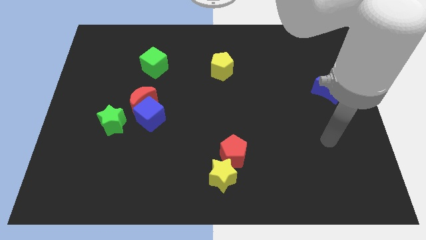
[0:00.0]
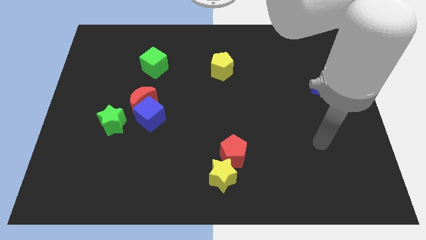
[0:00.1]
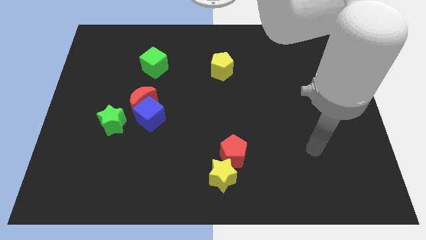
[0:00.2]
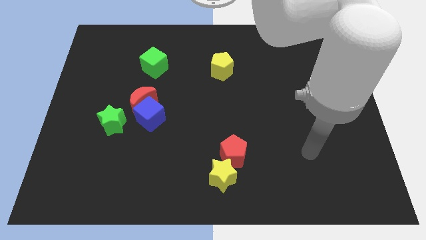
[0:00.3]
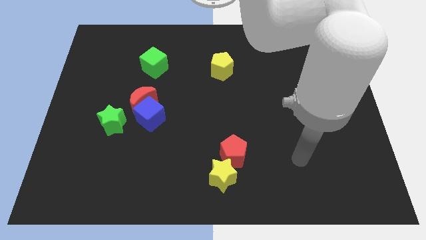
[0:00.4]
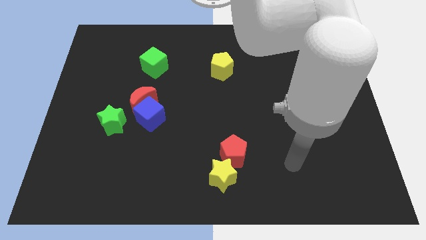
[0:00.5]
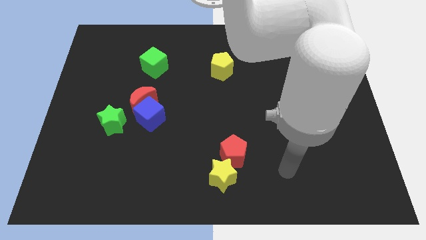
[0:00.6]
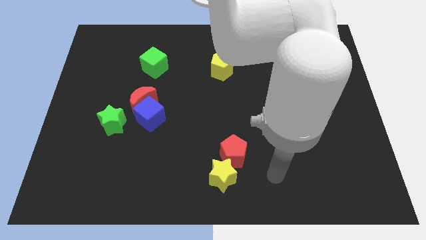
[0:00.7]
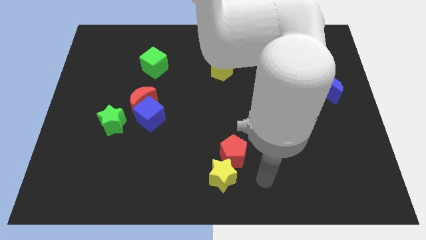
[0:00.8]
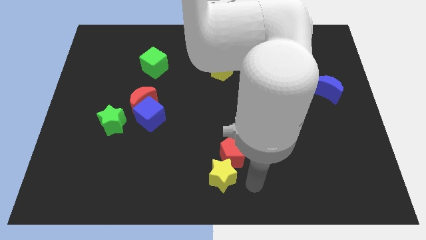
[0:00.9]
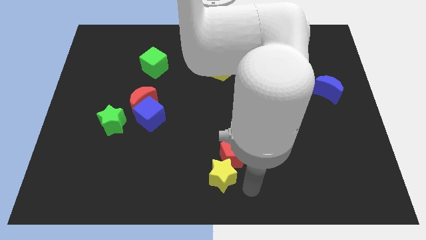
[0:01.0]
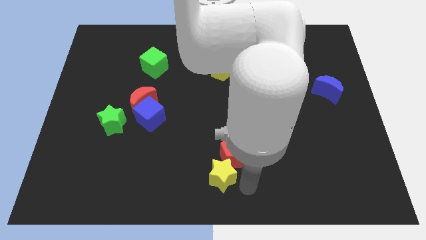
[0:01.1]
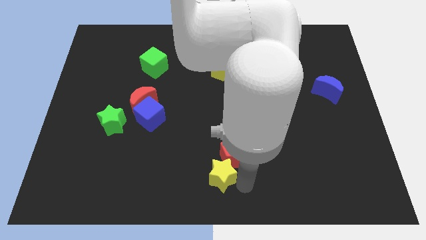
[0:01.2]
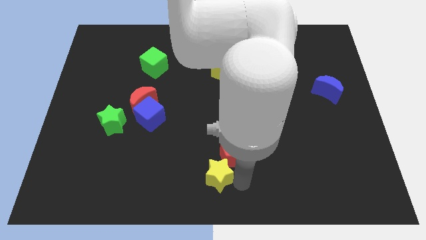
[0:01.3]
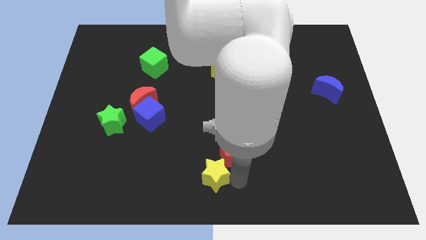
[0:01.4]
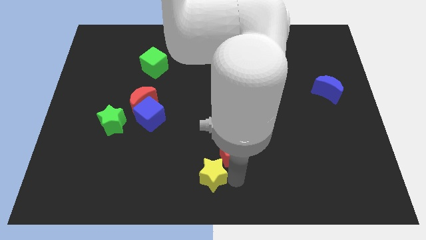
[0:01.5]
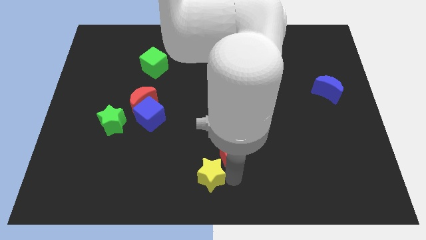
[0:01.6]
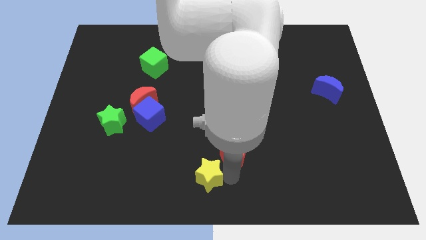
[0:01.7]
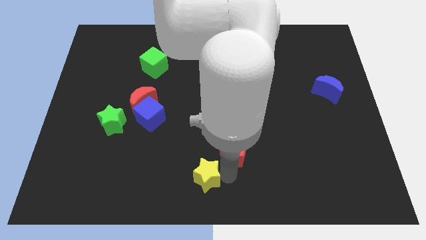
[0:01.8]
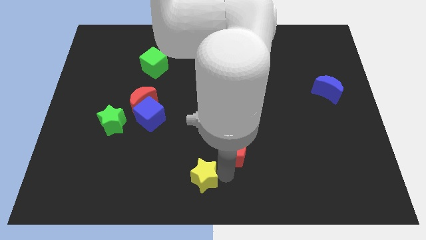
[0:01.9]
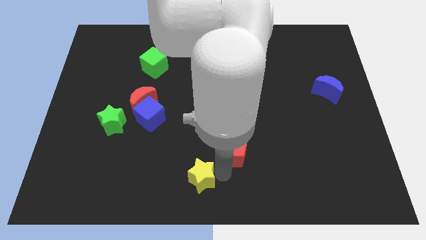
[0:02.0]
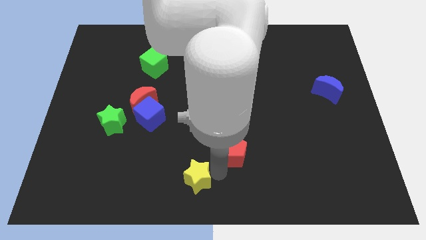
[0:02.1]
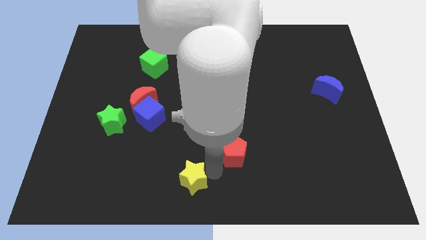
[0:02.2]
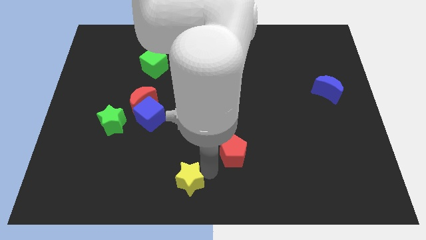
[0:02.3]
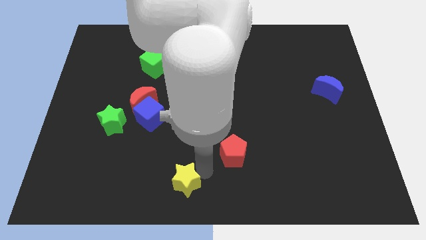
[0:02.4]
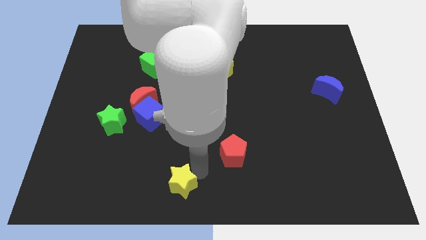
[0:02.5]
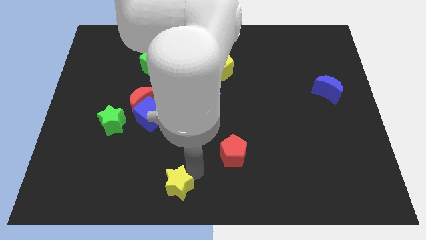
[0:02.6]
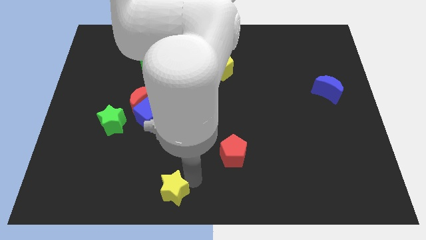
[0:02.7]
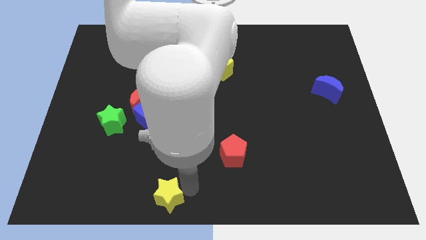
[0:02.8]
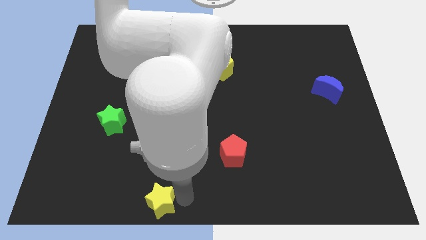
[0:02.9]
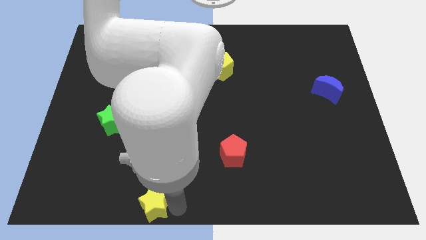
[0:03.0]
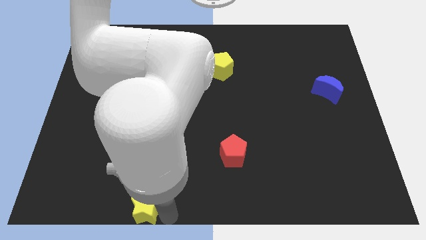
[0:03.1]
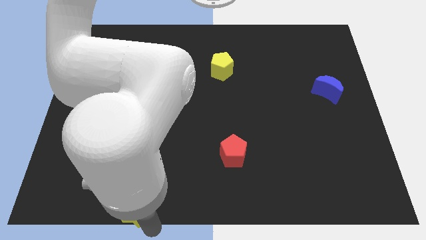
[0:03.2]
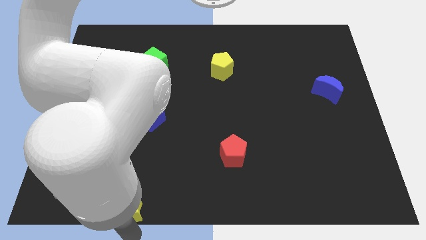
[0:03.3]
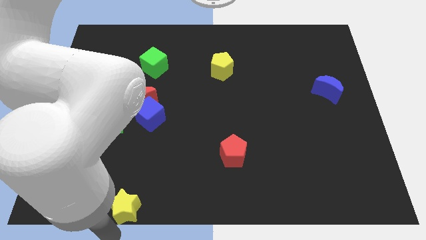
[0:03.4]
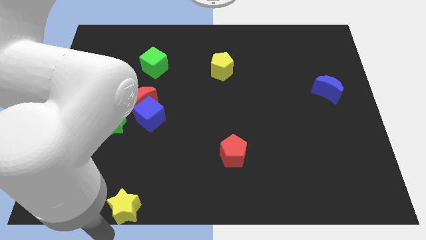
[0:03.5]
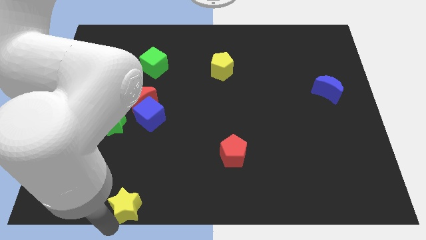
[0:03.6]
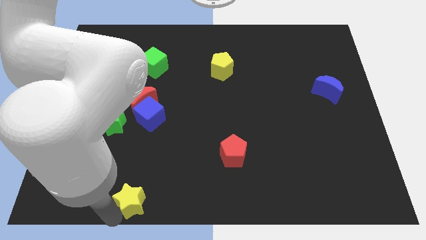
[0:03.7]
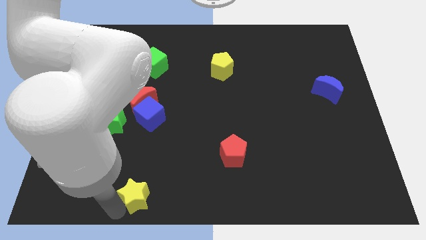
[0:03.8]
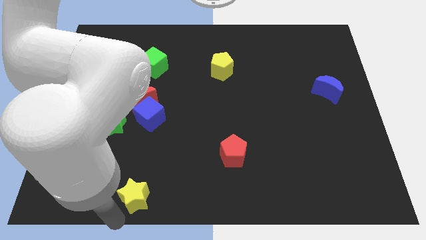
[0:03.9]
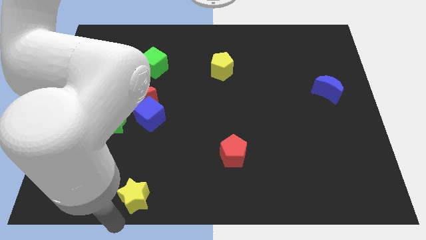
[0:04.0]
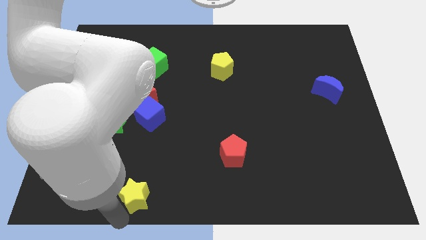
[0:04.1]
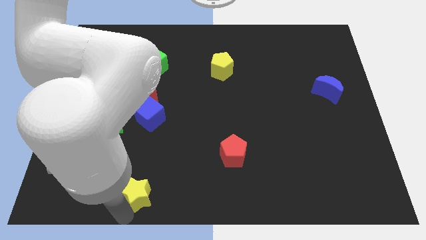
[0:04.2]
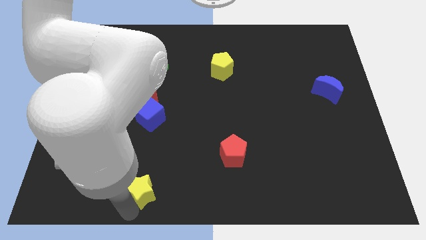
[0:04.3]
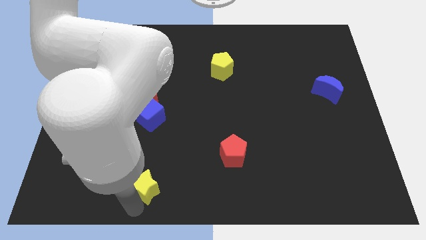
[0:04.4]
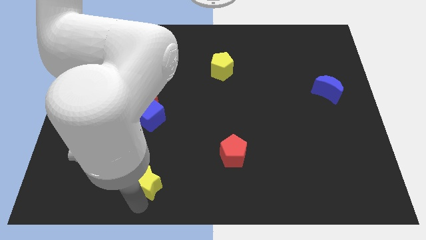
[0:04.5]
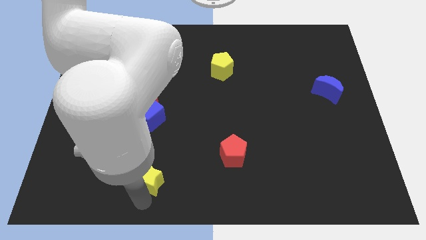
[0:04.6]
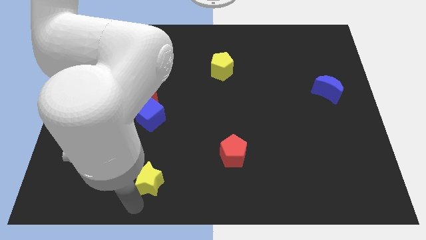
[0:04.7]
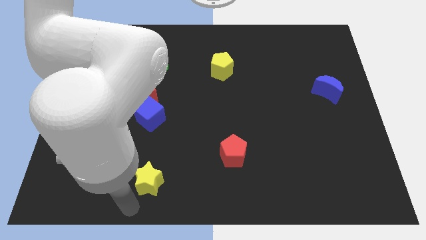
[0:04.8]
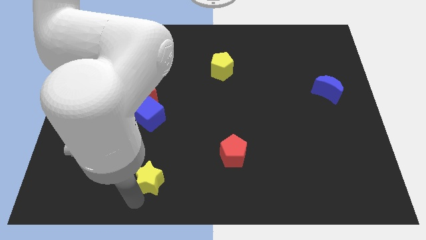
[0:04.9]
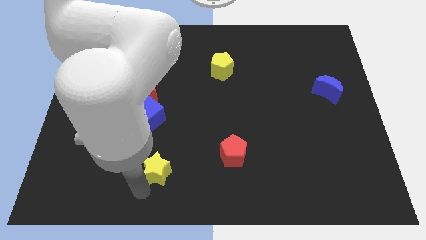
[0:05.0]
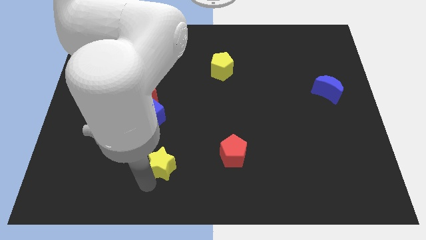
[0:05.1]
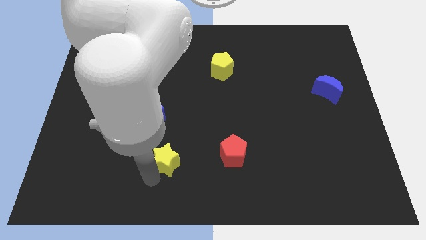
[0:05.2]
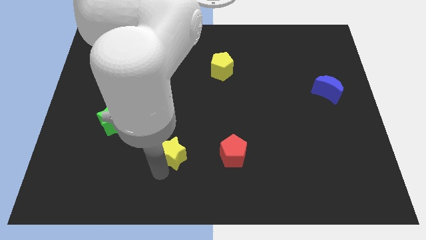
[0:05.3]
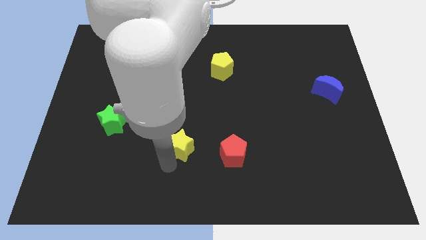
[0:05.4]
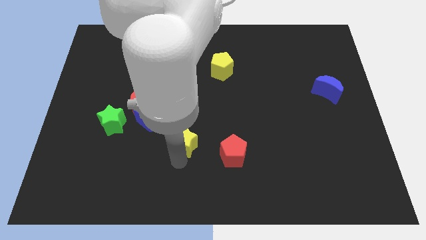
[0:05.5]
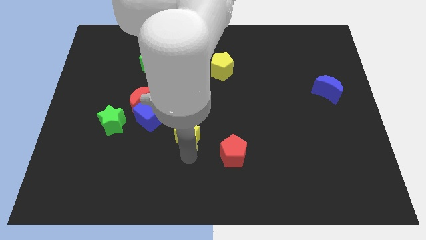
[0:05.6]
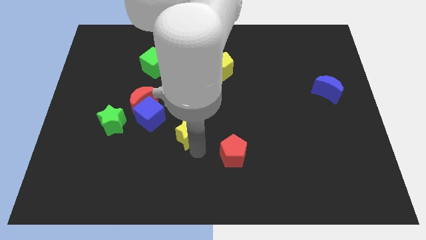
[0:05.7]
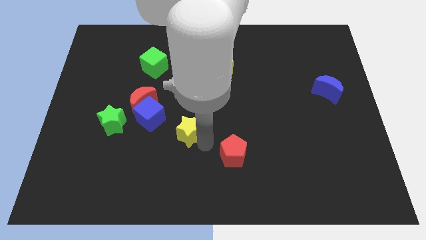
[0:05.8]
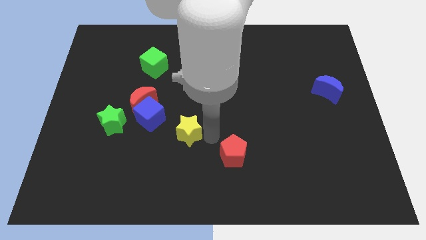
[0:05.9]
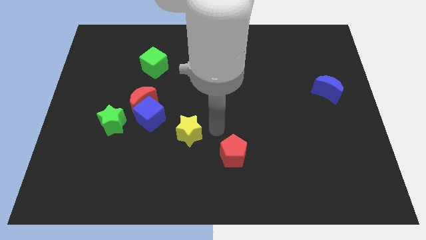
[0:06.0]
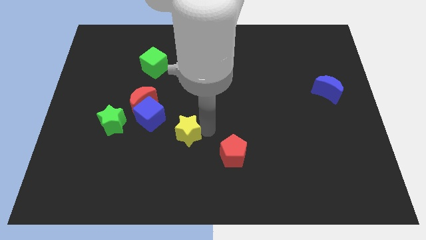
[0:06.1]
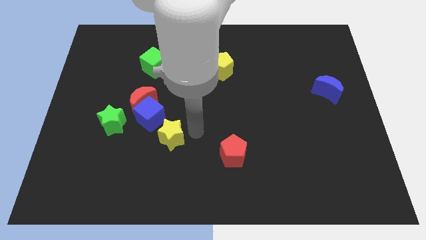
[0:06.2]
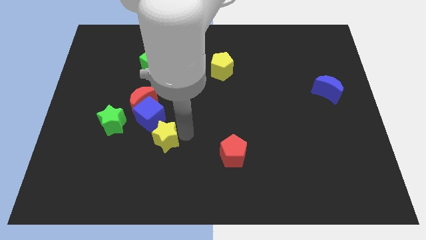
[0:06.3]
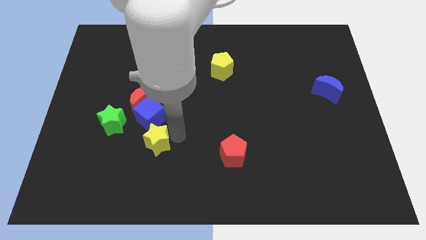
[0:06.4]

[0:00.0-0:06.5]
move the yellow star to the bottom right side of the green star
